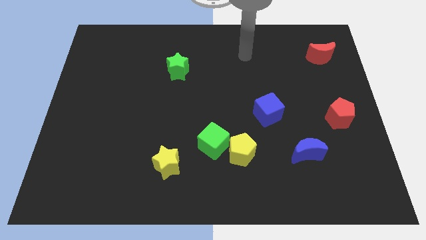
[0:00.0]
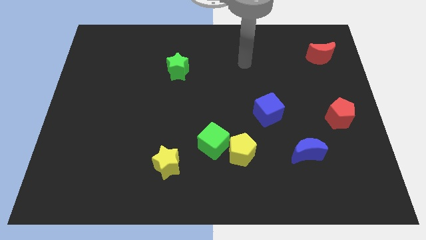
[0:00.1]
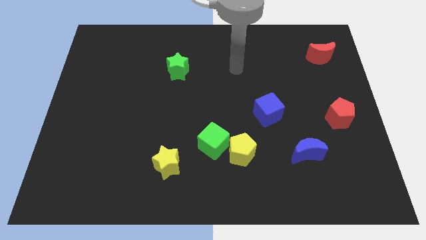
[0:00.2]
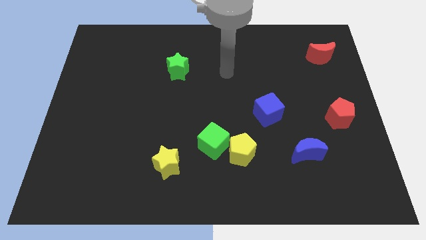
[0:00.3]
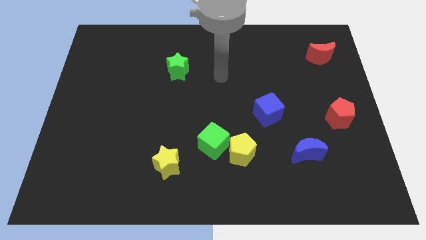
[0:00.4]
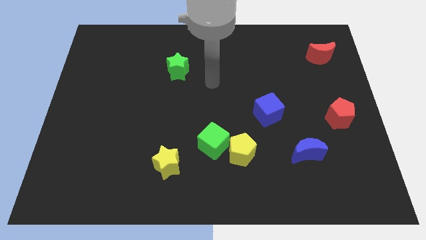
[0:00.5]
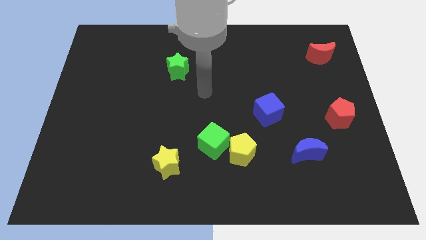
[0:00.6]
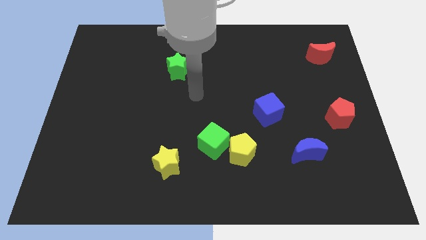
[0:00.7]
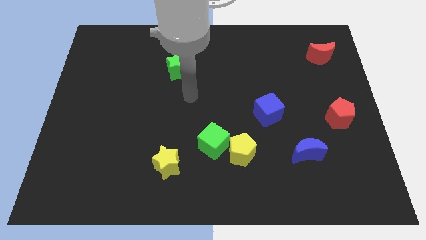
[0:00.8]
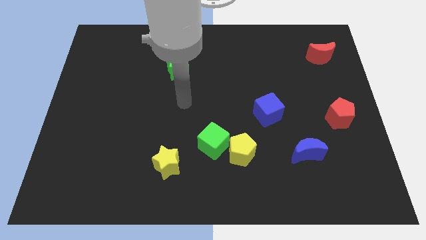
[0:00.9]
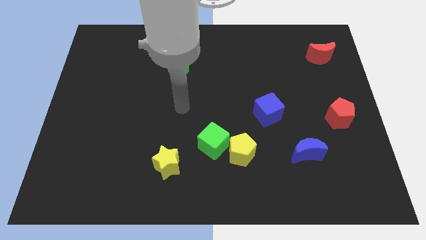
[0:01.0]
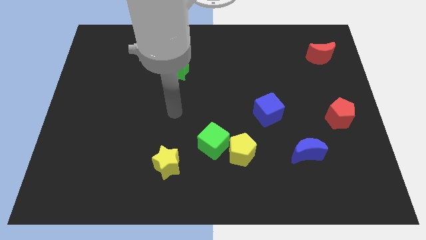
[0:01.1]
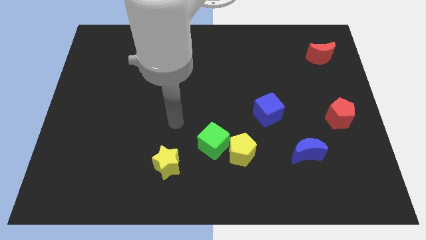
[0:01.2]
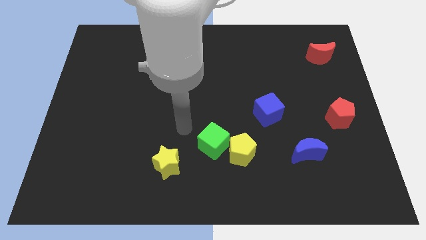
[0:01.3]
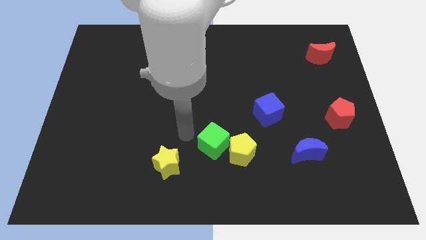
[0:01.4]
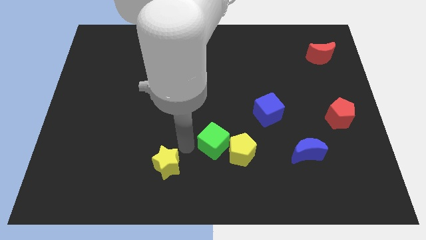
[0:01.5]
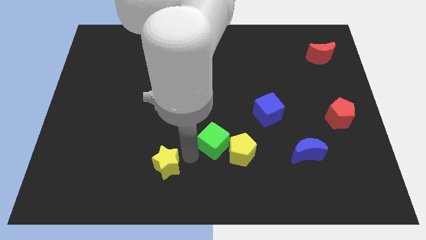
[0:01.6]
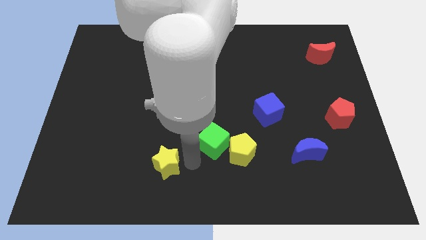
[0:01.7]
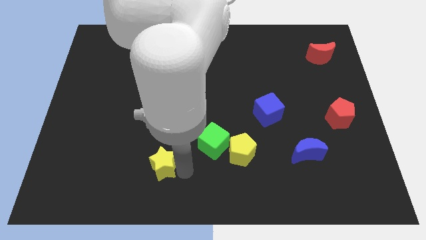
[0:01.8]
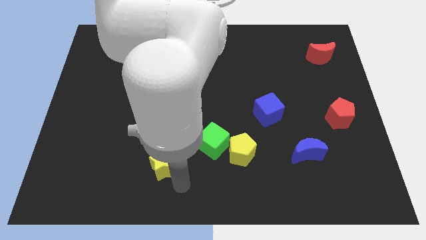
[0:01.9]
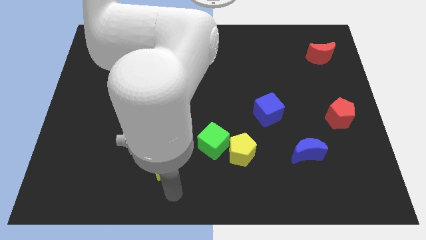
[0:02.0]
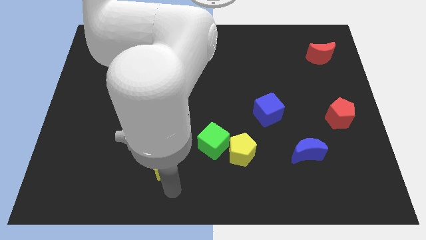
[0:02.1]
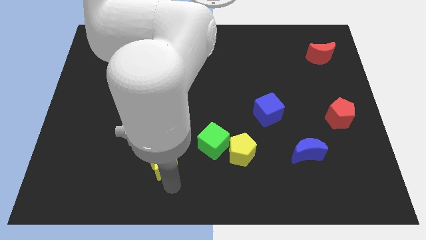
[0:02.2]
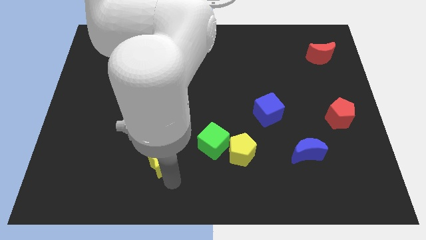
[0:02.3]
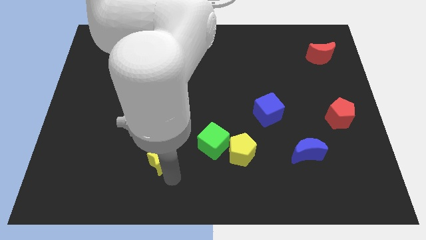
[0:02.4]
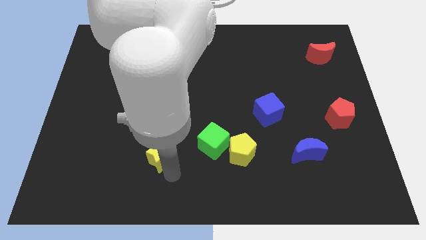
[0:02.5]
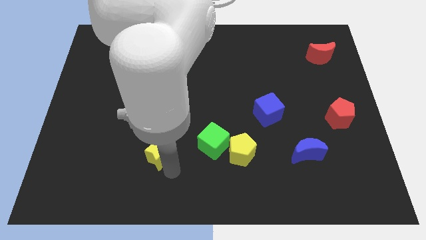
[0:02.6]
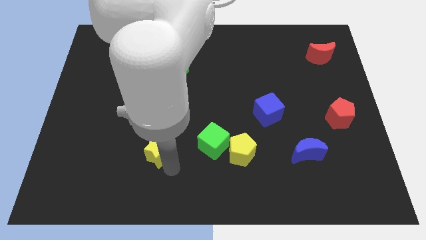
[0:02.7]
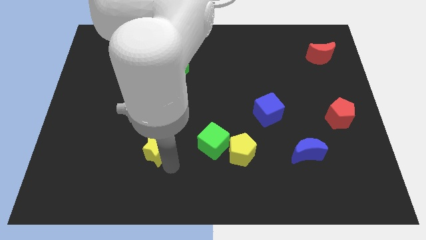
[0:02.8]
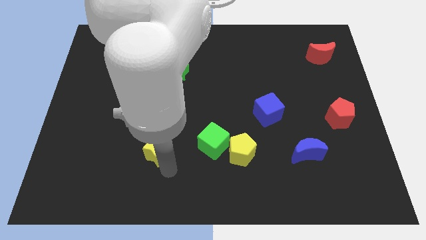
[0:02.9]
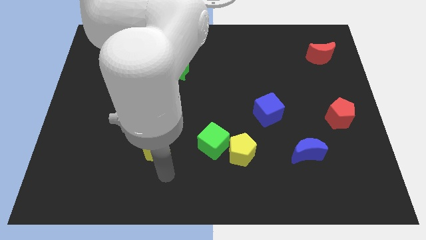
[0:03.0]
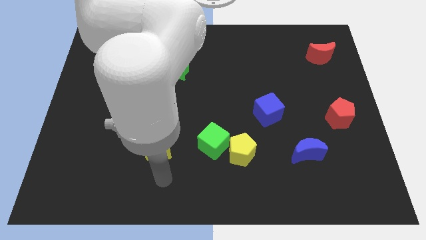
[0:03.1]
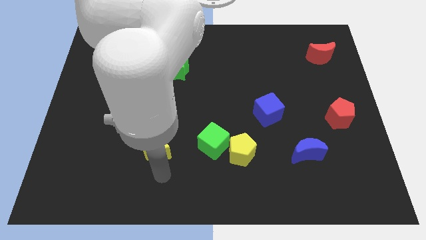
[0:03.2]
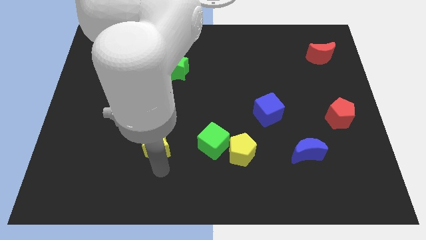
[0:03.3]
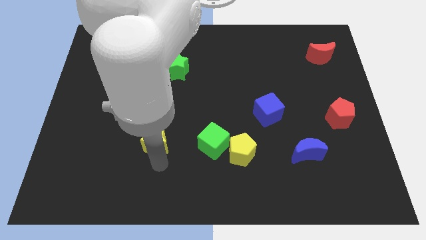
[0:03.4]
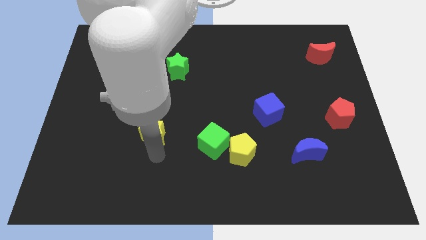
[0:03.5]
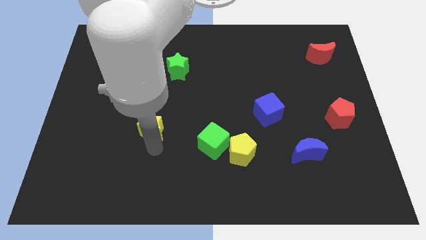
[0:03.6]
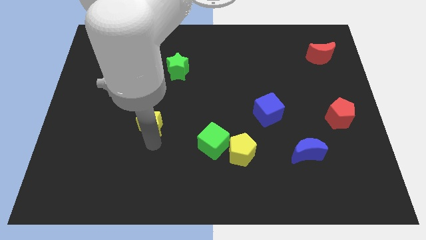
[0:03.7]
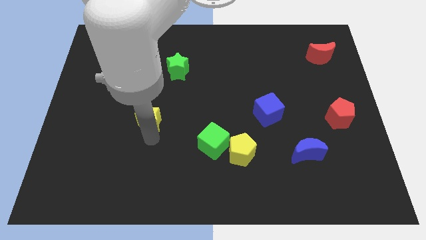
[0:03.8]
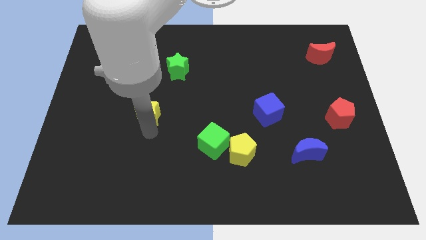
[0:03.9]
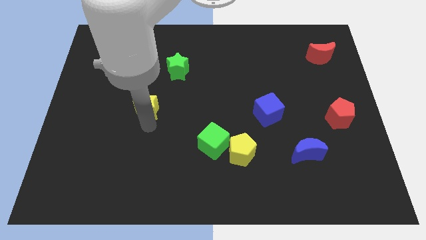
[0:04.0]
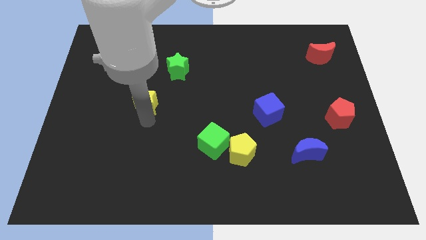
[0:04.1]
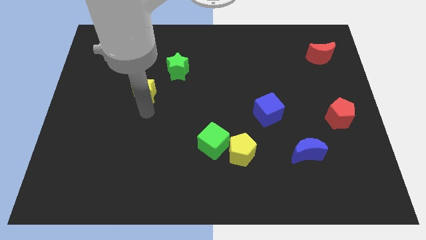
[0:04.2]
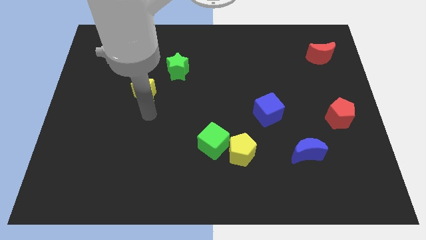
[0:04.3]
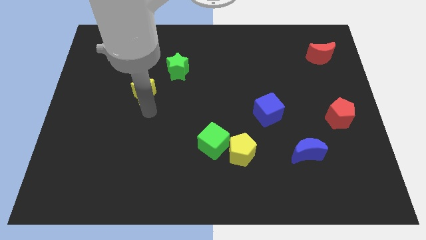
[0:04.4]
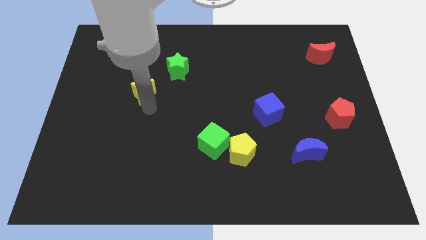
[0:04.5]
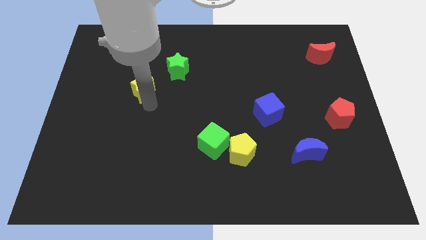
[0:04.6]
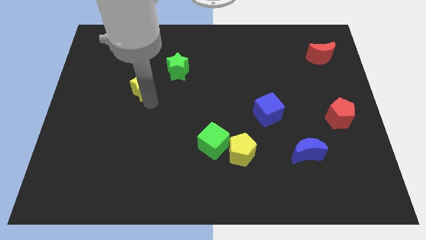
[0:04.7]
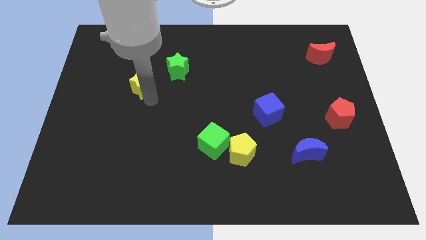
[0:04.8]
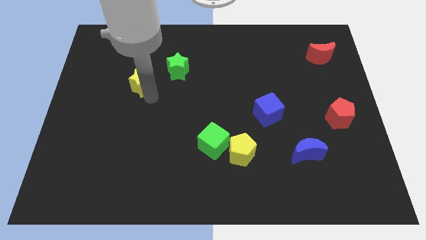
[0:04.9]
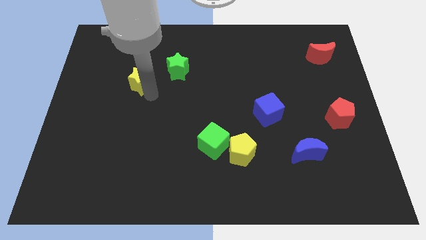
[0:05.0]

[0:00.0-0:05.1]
move the yellow star left of the green star

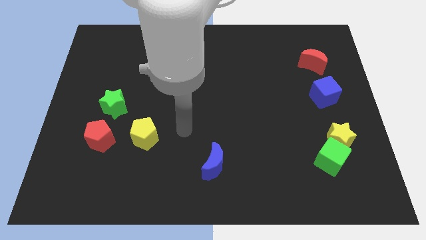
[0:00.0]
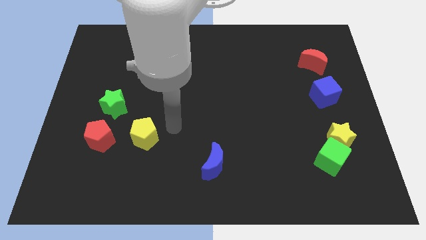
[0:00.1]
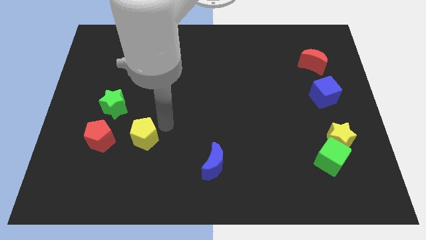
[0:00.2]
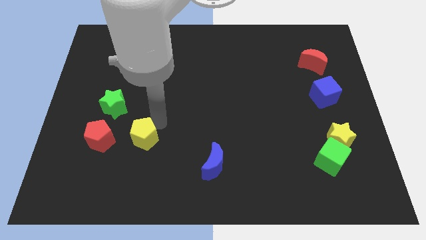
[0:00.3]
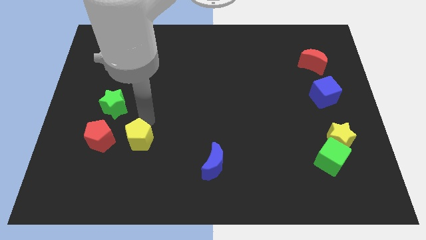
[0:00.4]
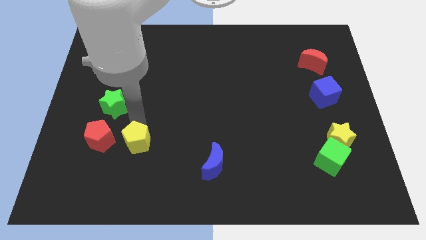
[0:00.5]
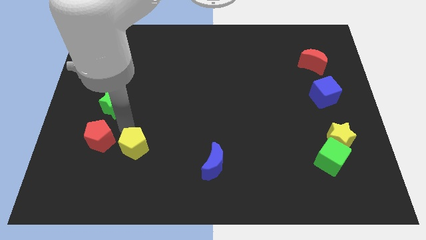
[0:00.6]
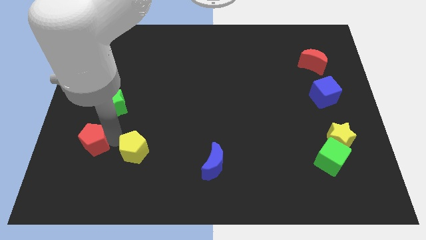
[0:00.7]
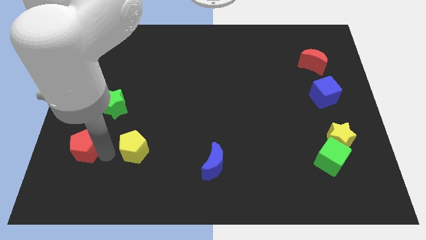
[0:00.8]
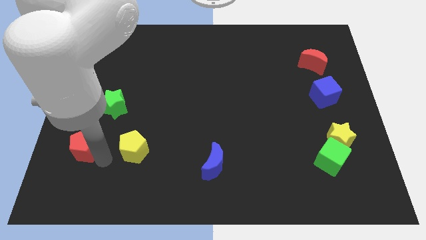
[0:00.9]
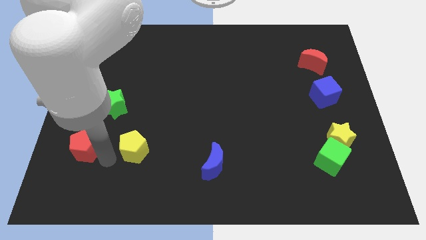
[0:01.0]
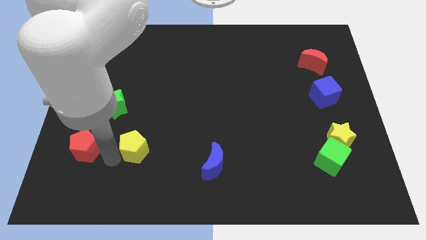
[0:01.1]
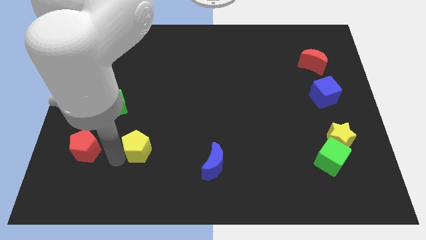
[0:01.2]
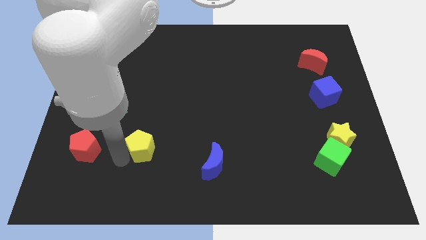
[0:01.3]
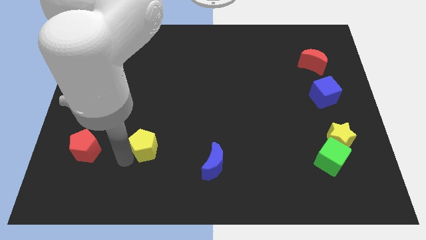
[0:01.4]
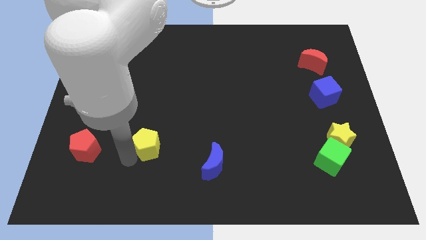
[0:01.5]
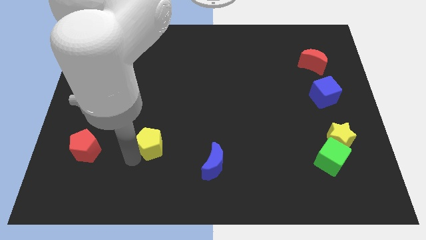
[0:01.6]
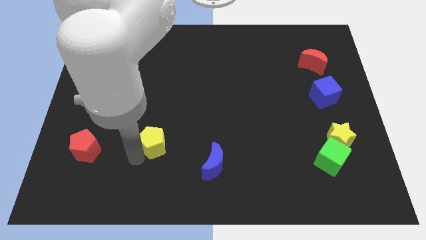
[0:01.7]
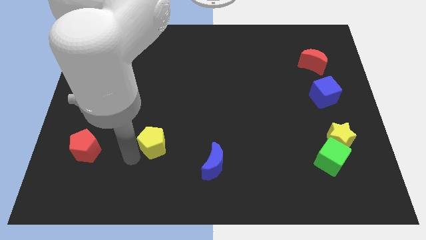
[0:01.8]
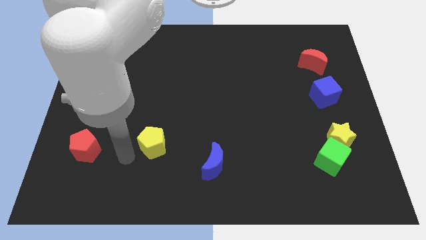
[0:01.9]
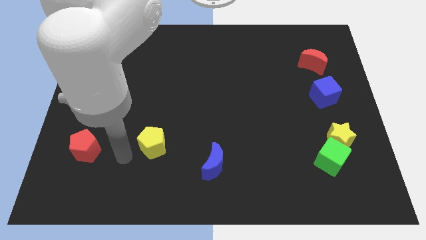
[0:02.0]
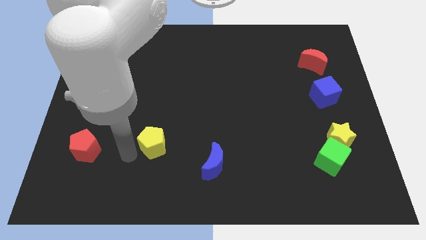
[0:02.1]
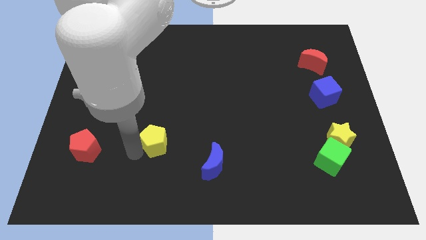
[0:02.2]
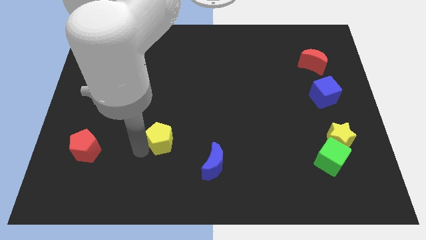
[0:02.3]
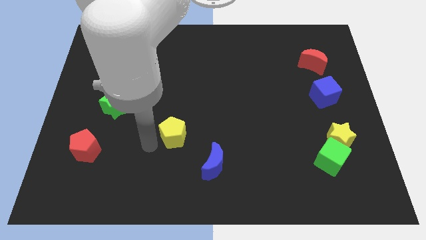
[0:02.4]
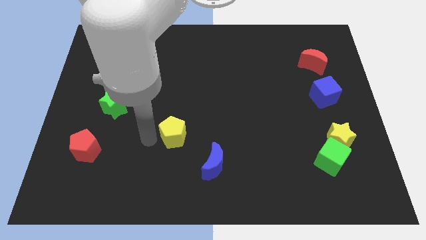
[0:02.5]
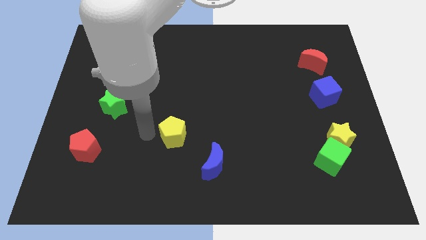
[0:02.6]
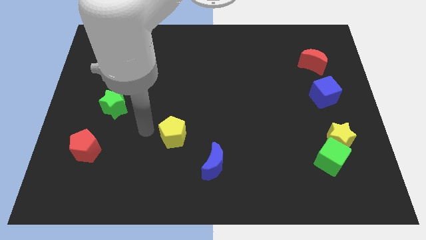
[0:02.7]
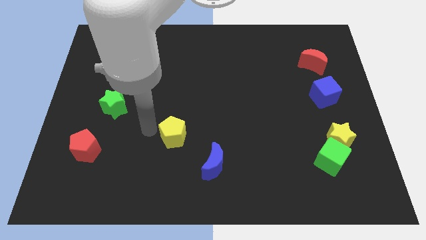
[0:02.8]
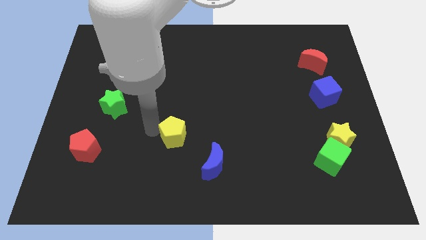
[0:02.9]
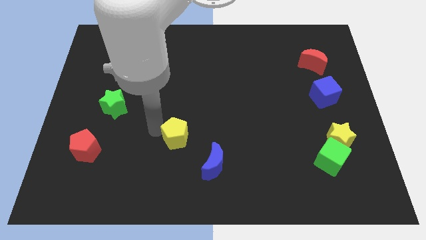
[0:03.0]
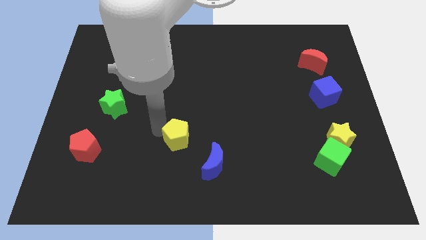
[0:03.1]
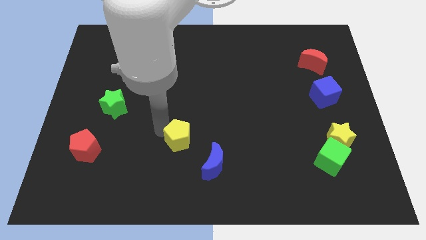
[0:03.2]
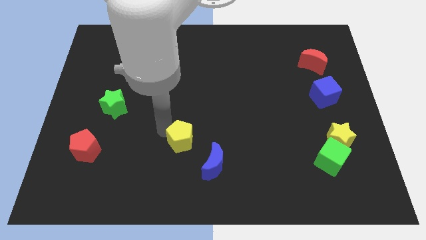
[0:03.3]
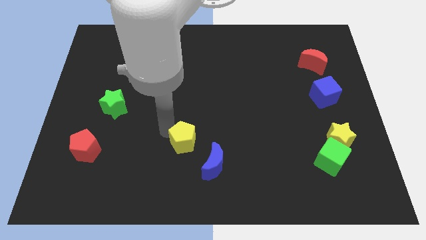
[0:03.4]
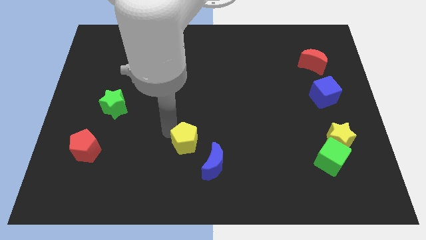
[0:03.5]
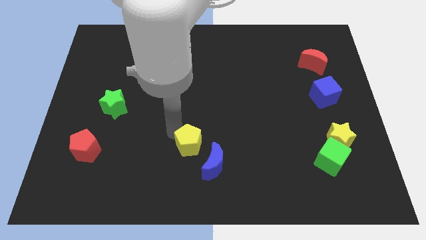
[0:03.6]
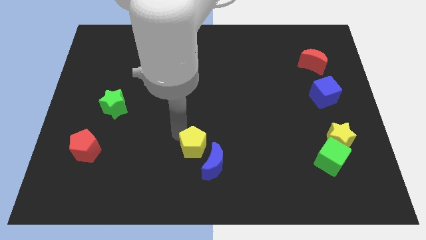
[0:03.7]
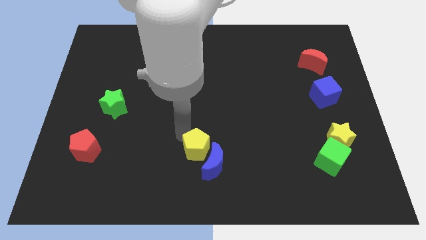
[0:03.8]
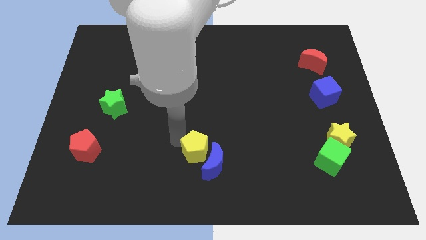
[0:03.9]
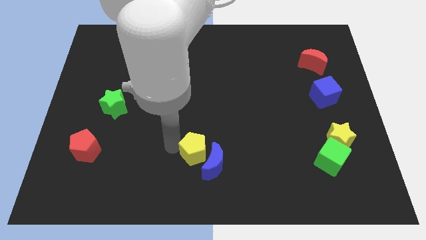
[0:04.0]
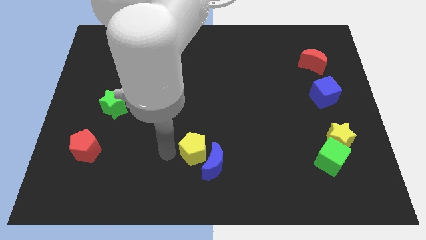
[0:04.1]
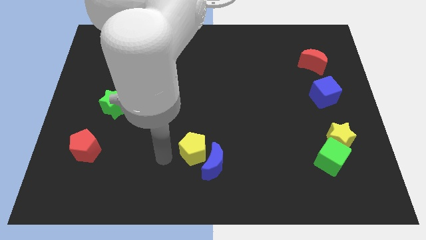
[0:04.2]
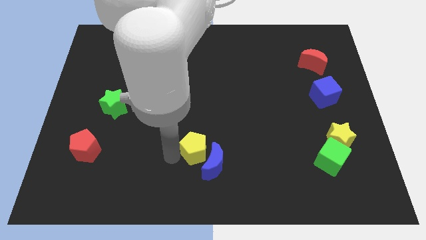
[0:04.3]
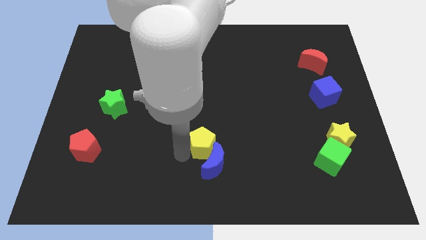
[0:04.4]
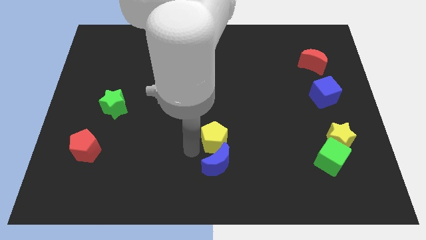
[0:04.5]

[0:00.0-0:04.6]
put the yellow pentagon to the top right of the blue moon
